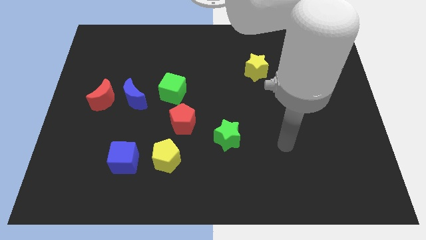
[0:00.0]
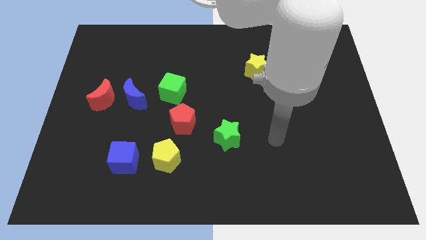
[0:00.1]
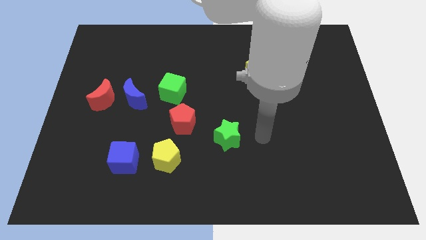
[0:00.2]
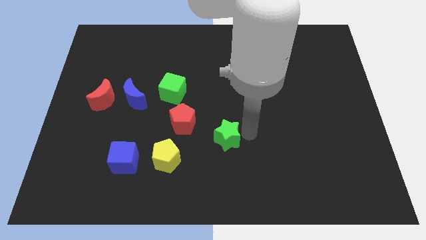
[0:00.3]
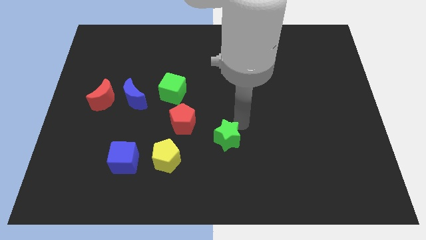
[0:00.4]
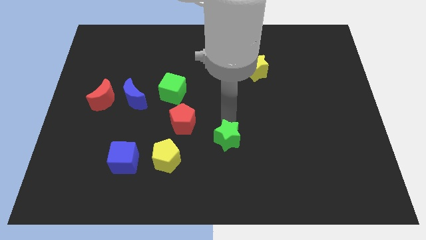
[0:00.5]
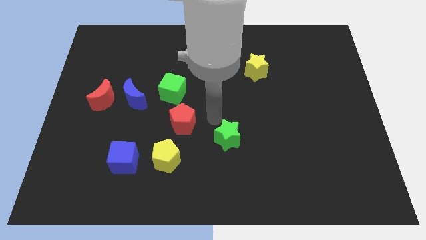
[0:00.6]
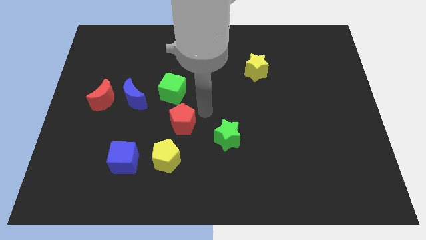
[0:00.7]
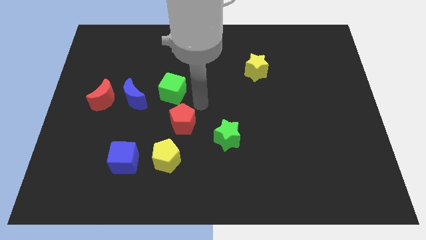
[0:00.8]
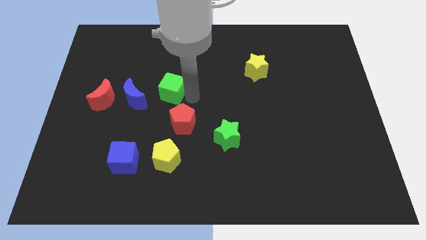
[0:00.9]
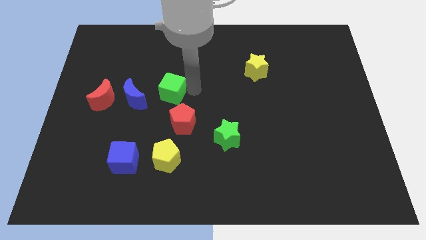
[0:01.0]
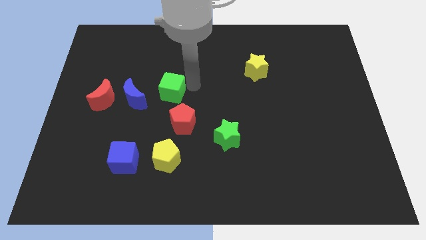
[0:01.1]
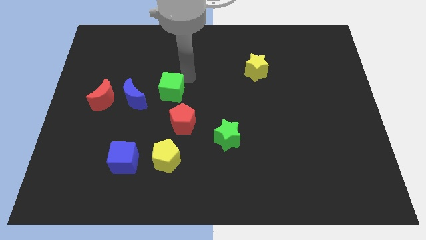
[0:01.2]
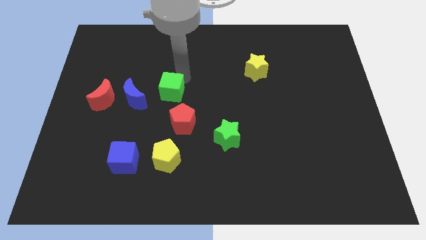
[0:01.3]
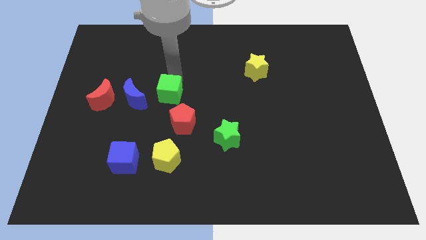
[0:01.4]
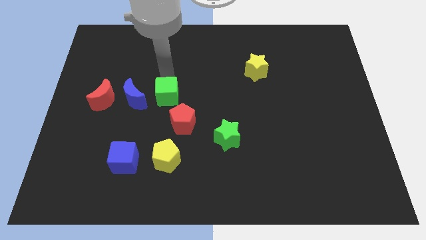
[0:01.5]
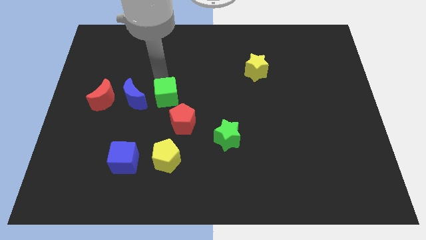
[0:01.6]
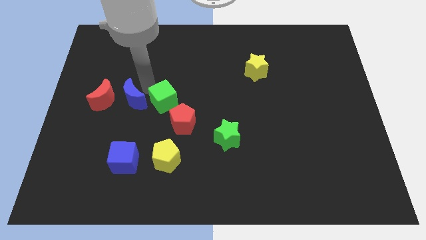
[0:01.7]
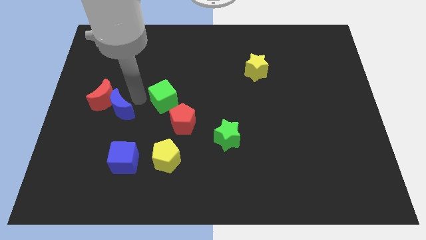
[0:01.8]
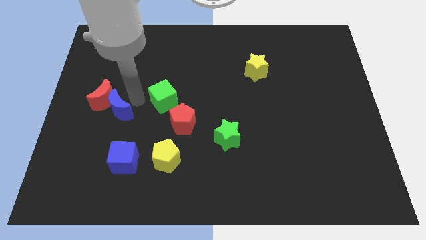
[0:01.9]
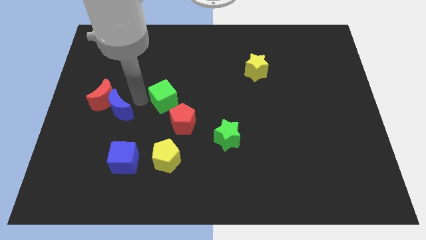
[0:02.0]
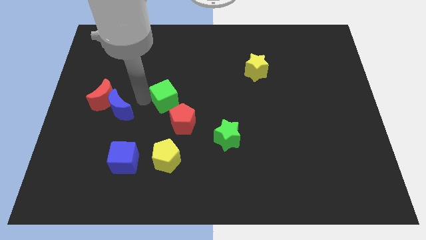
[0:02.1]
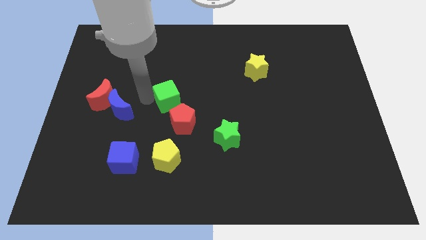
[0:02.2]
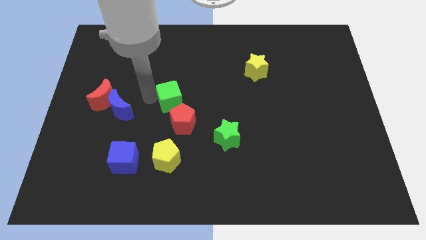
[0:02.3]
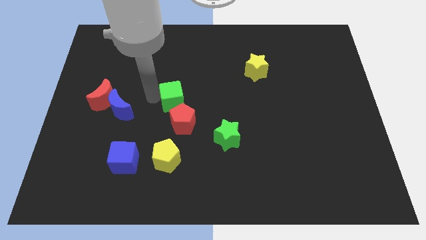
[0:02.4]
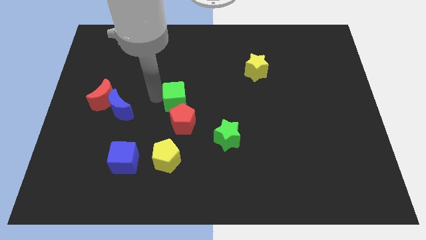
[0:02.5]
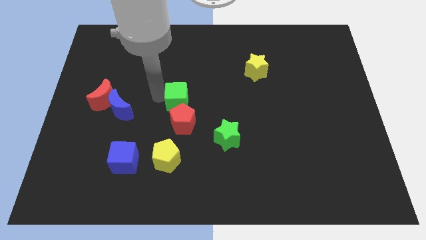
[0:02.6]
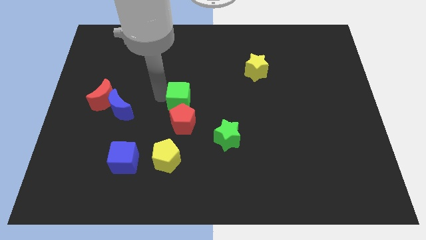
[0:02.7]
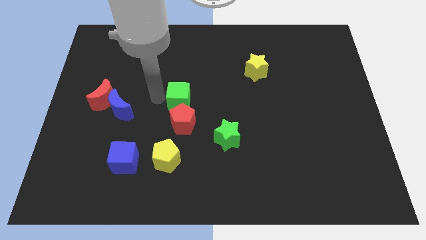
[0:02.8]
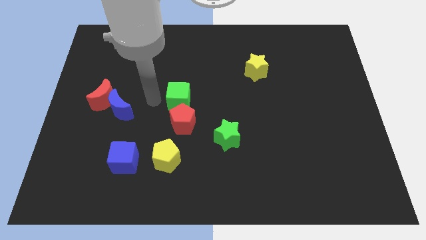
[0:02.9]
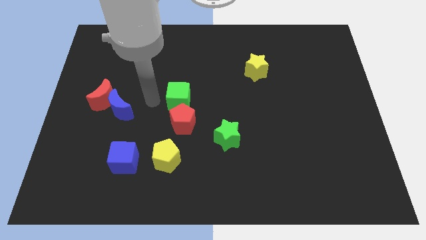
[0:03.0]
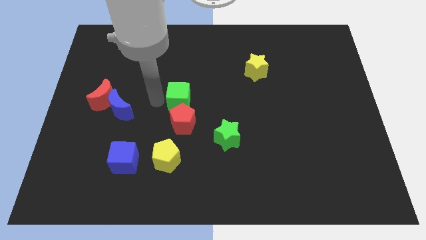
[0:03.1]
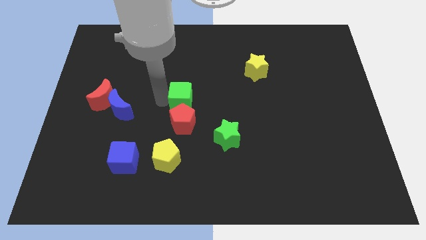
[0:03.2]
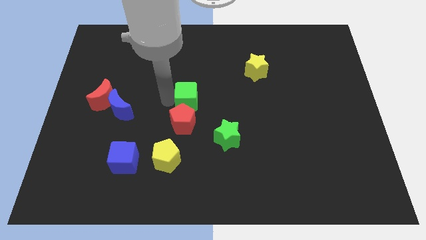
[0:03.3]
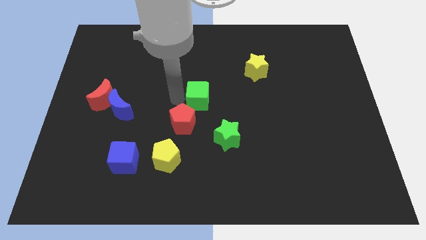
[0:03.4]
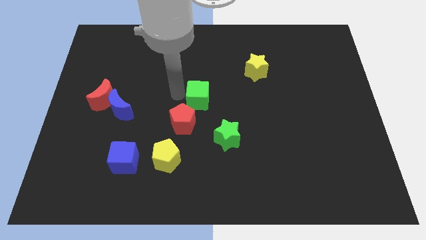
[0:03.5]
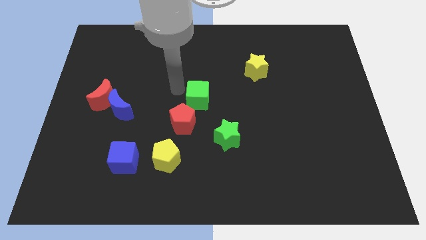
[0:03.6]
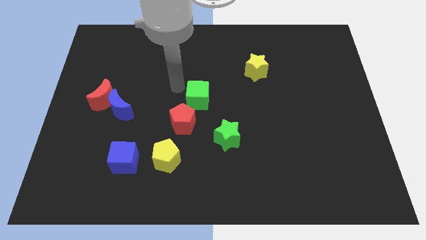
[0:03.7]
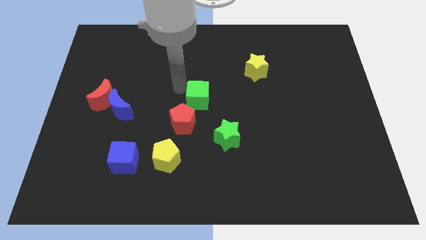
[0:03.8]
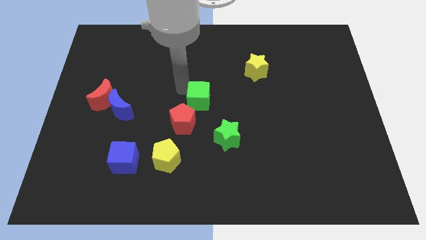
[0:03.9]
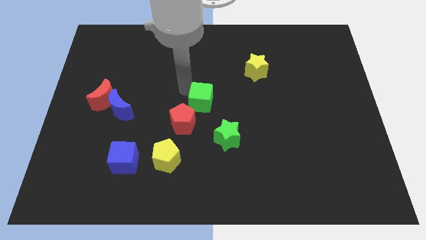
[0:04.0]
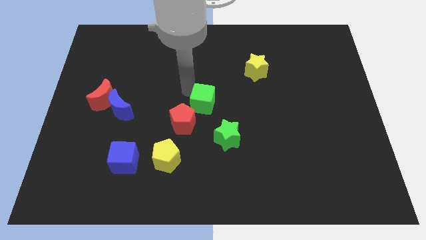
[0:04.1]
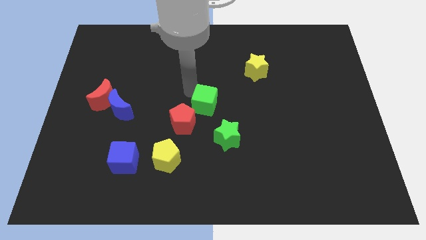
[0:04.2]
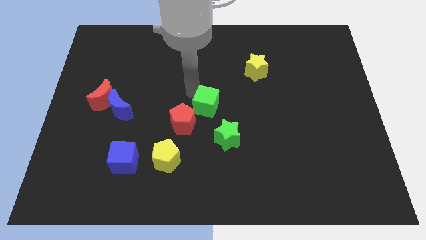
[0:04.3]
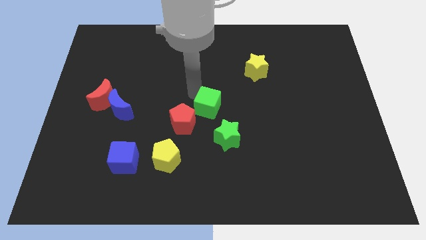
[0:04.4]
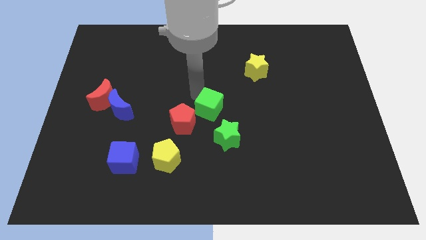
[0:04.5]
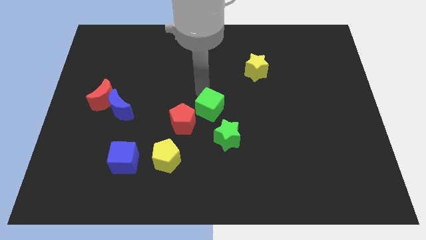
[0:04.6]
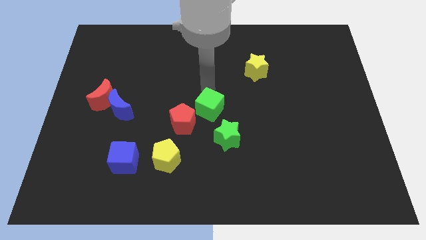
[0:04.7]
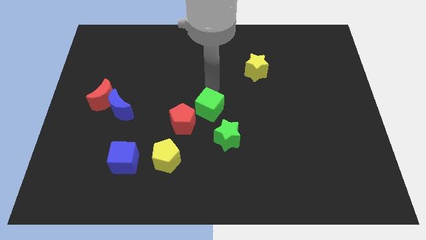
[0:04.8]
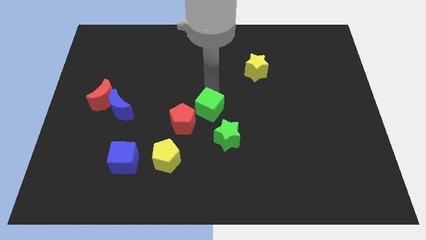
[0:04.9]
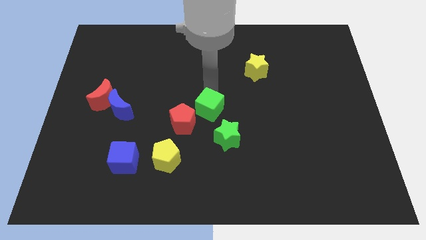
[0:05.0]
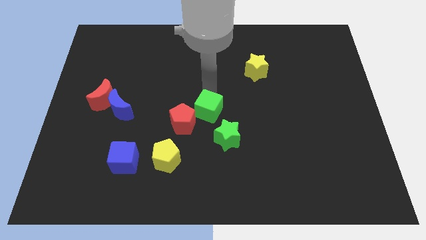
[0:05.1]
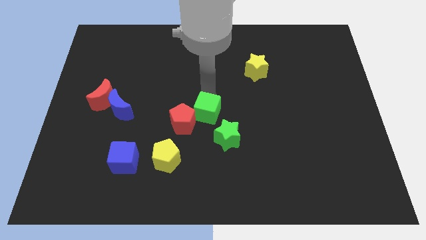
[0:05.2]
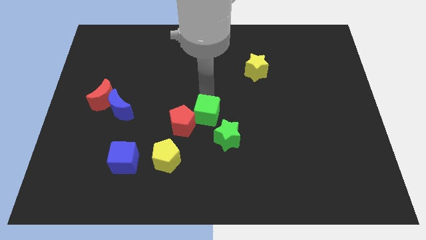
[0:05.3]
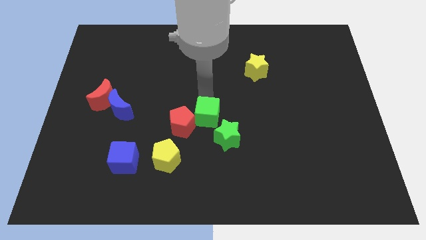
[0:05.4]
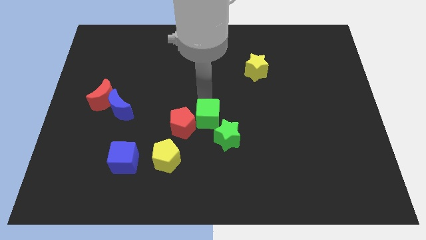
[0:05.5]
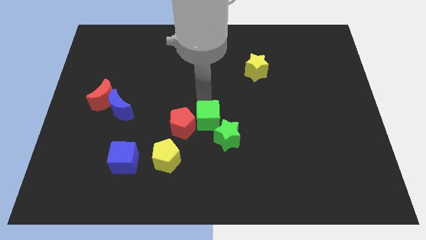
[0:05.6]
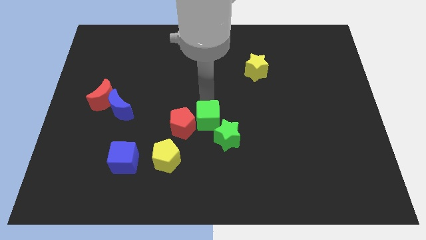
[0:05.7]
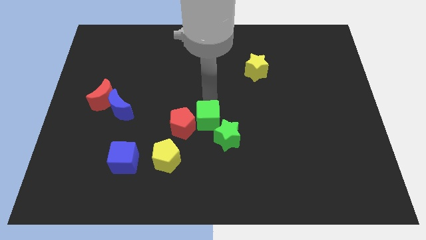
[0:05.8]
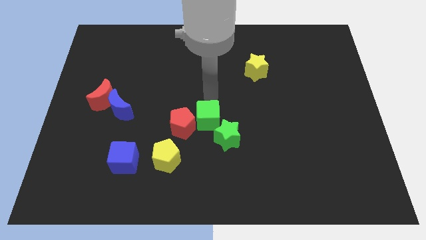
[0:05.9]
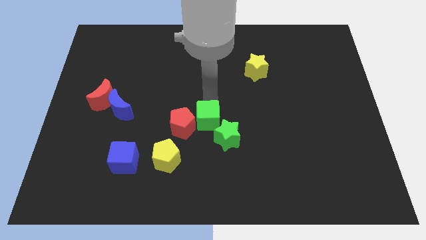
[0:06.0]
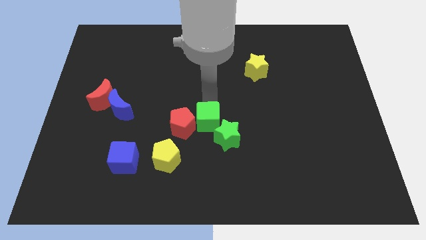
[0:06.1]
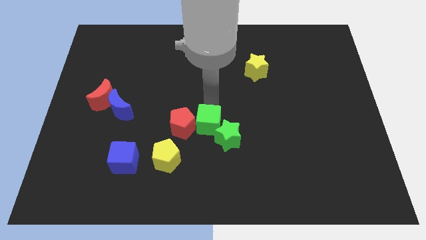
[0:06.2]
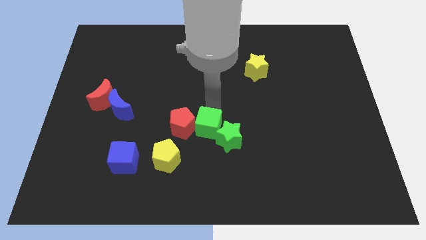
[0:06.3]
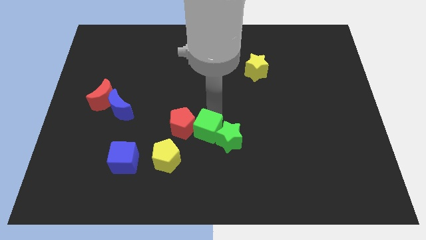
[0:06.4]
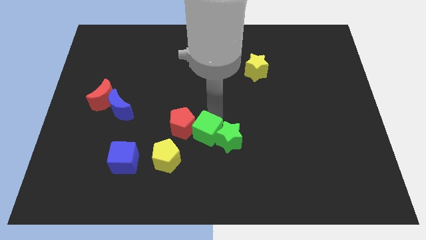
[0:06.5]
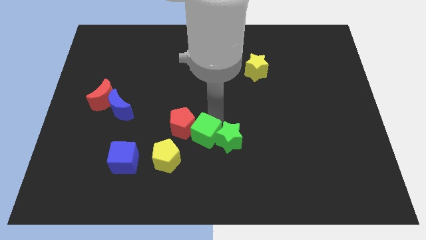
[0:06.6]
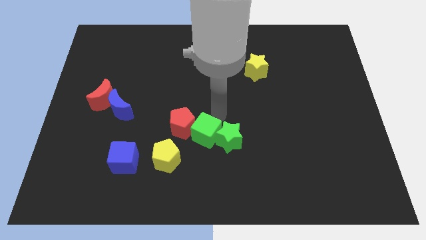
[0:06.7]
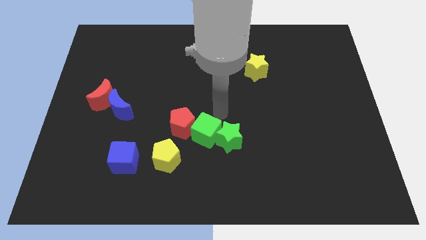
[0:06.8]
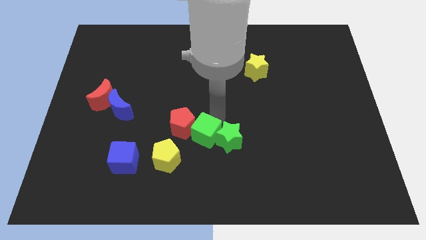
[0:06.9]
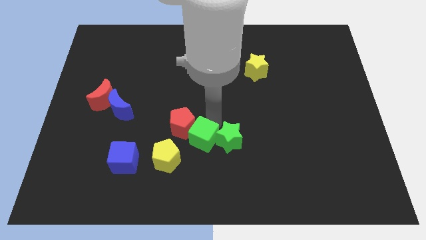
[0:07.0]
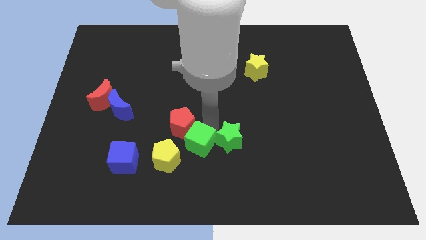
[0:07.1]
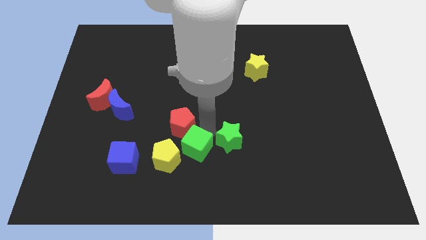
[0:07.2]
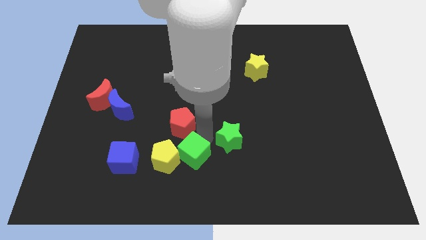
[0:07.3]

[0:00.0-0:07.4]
move the green cube right of the blue cube
